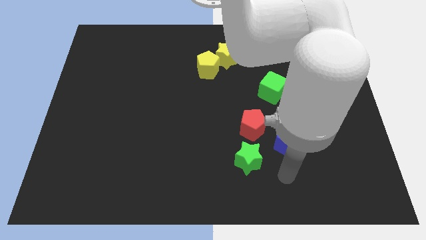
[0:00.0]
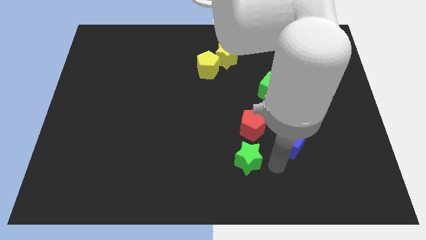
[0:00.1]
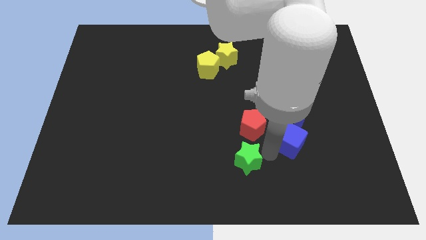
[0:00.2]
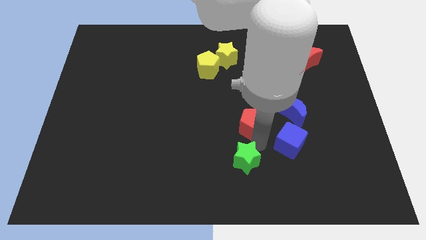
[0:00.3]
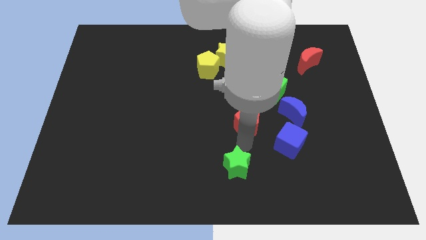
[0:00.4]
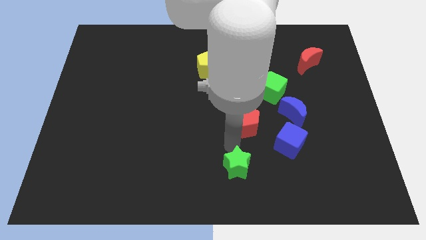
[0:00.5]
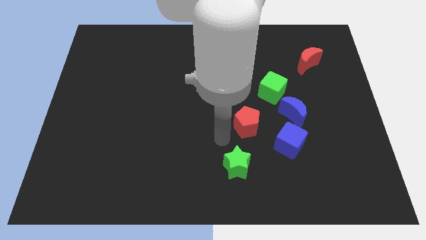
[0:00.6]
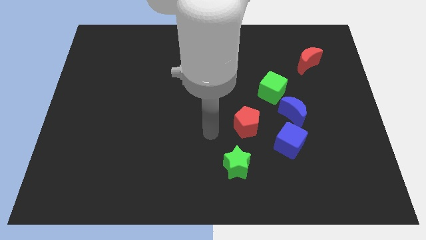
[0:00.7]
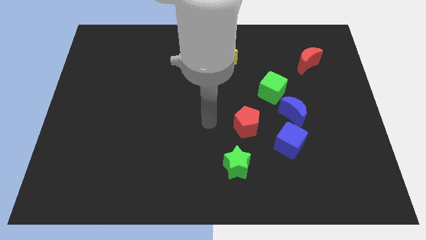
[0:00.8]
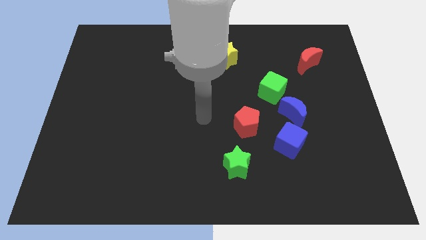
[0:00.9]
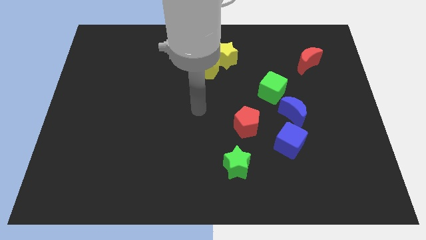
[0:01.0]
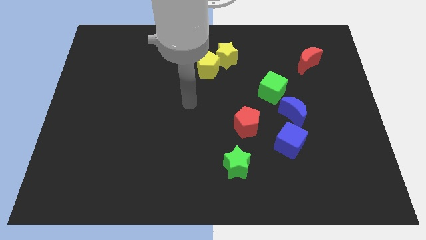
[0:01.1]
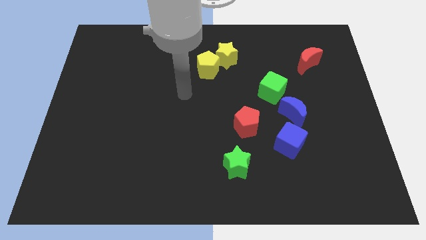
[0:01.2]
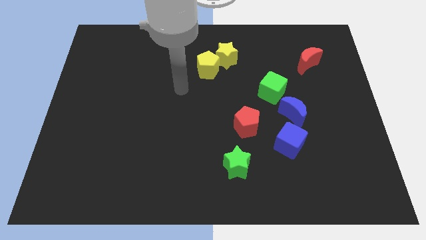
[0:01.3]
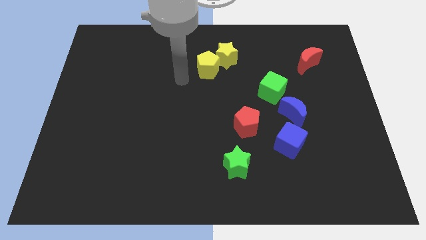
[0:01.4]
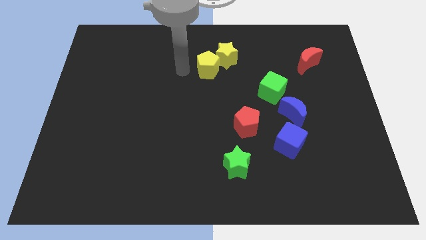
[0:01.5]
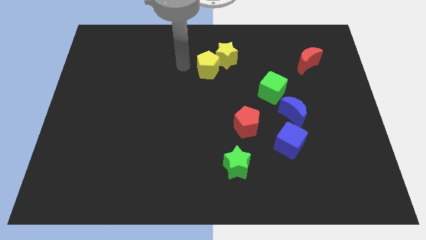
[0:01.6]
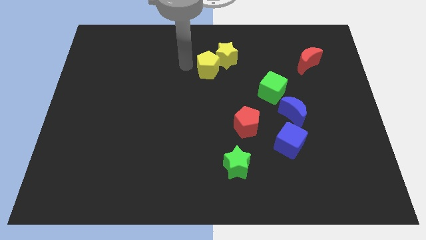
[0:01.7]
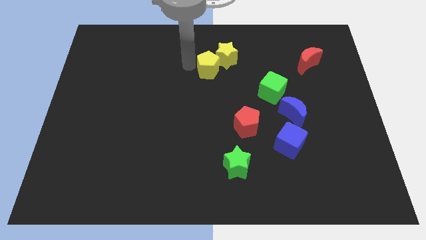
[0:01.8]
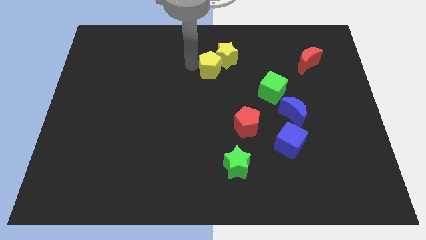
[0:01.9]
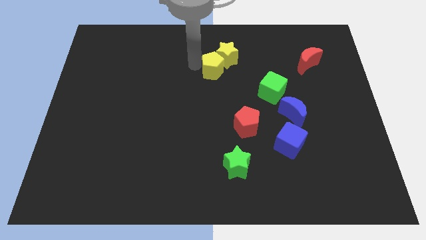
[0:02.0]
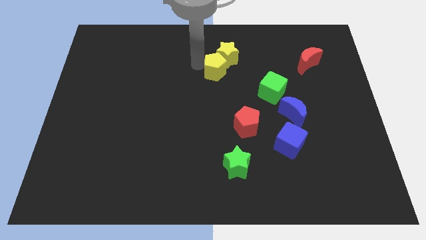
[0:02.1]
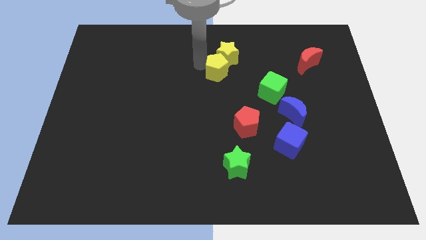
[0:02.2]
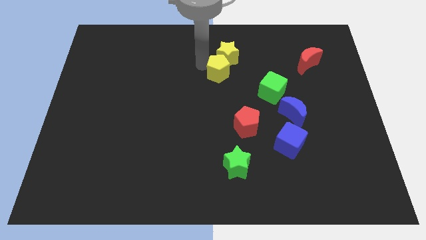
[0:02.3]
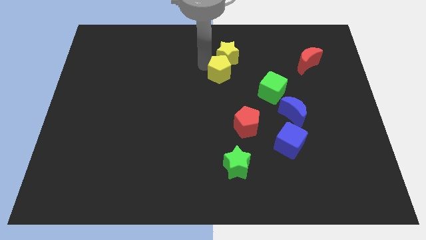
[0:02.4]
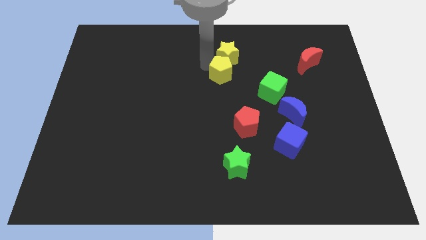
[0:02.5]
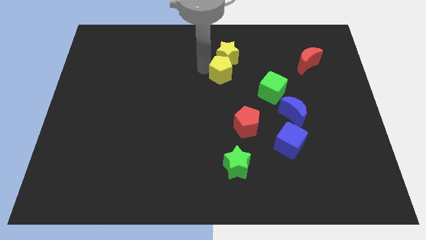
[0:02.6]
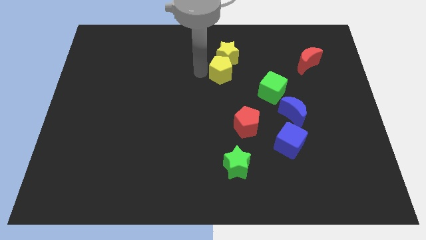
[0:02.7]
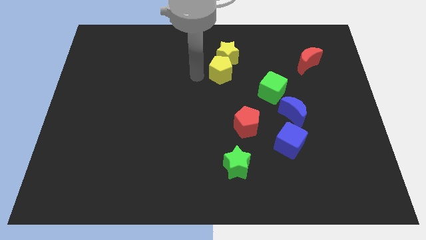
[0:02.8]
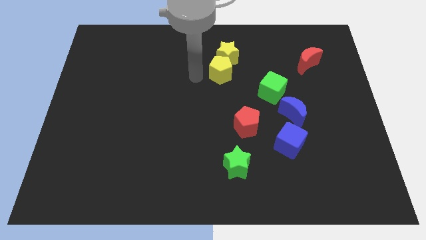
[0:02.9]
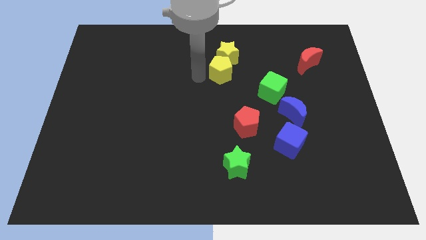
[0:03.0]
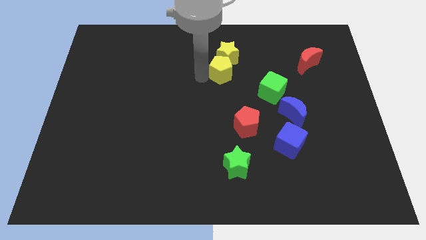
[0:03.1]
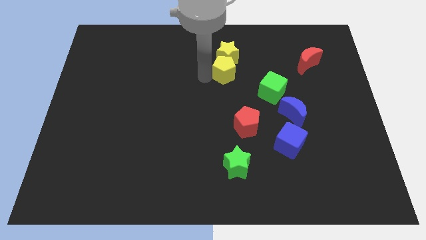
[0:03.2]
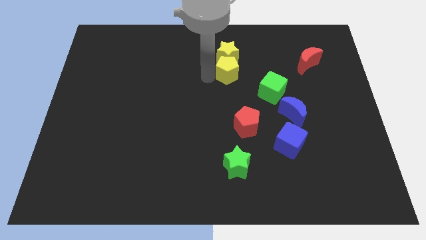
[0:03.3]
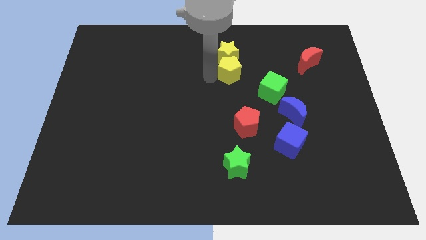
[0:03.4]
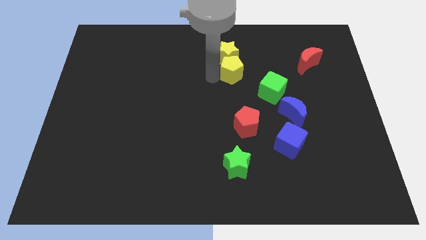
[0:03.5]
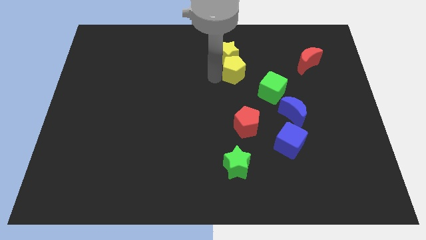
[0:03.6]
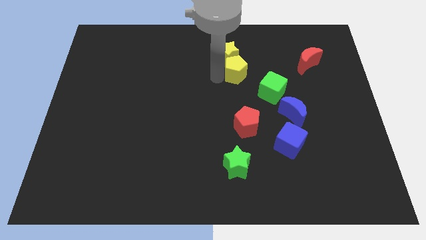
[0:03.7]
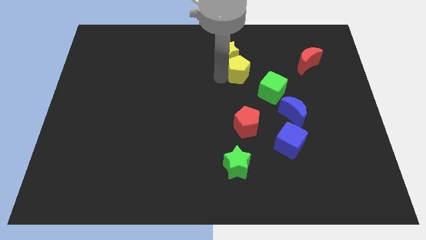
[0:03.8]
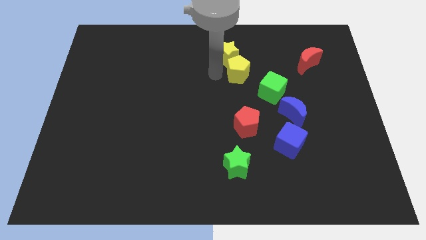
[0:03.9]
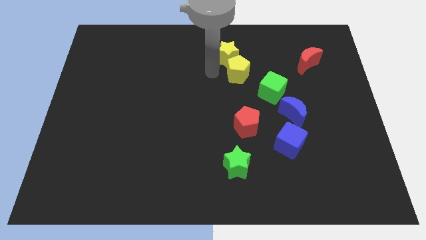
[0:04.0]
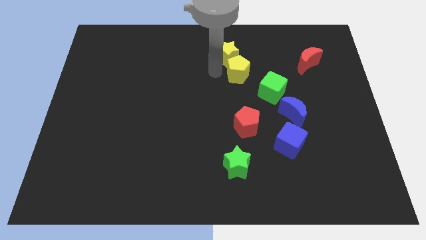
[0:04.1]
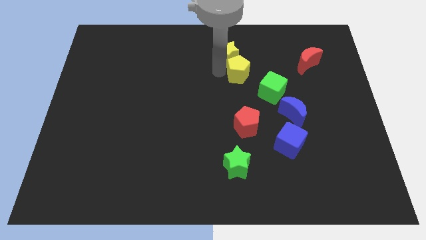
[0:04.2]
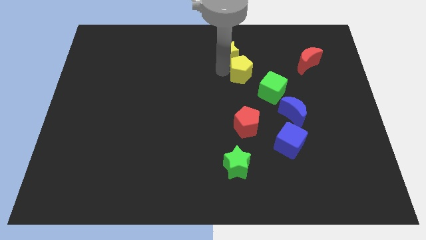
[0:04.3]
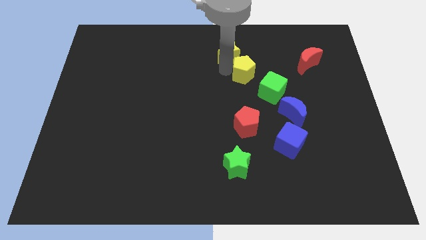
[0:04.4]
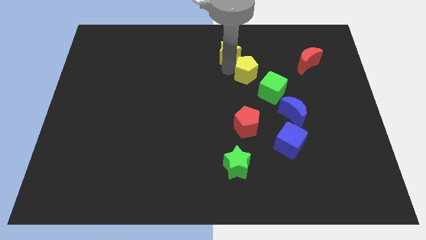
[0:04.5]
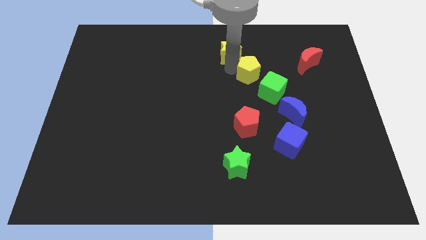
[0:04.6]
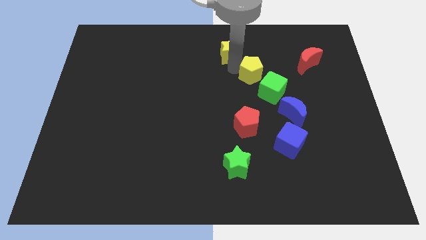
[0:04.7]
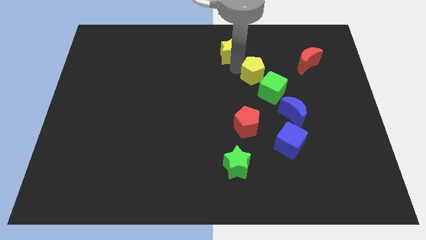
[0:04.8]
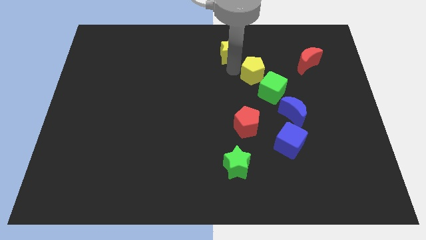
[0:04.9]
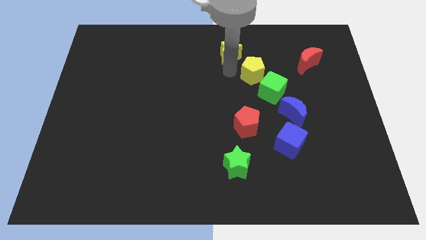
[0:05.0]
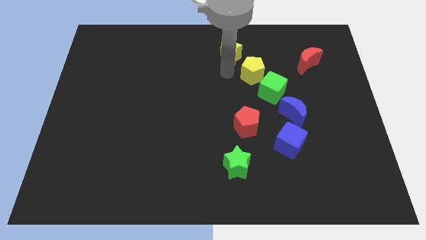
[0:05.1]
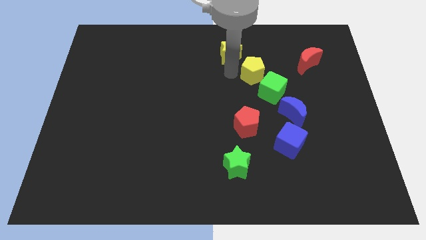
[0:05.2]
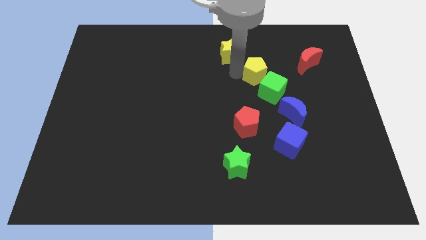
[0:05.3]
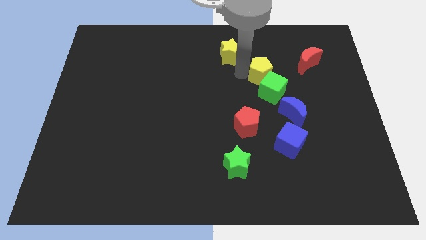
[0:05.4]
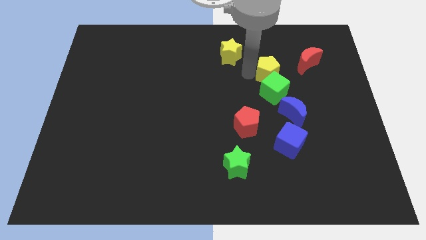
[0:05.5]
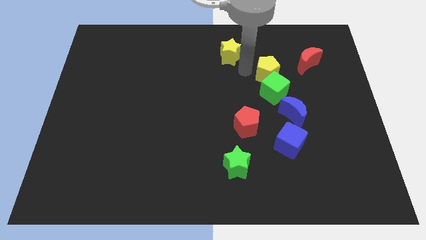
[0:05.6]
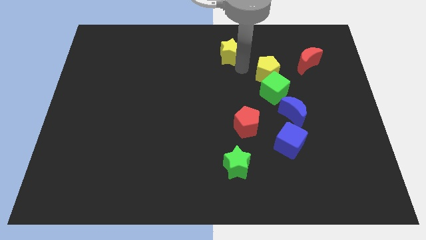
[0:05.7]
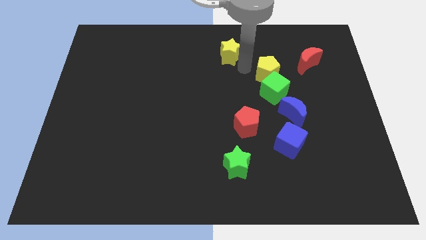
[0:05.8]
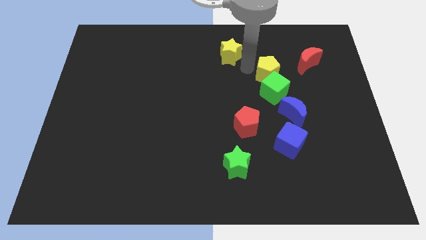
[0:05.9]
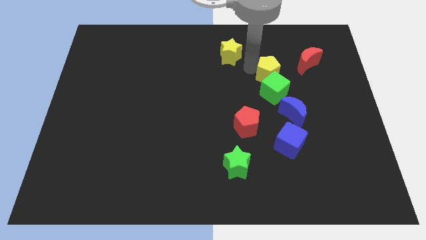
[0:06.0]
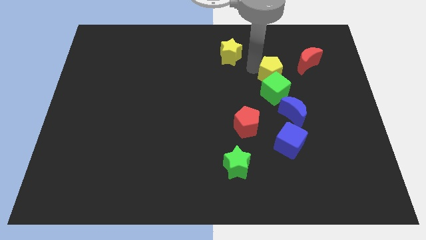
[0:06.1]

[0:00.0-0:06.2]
push the yellow pentagon to the bottom left of the red moon

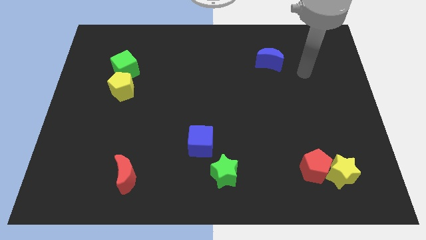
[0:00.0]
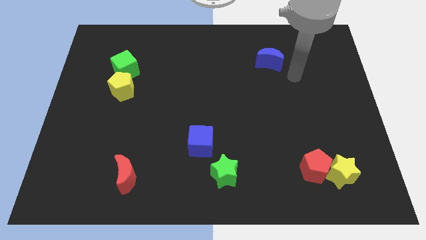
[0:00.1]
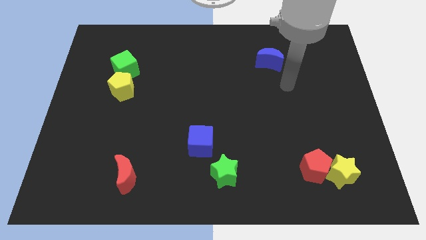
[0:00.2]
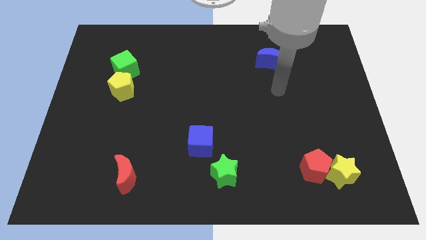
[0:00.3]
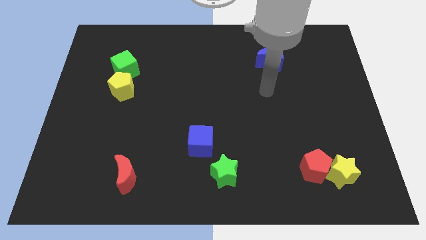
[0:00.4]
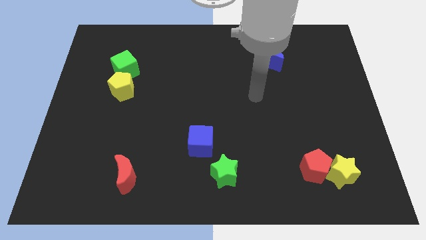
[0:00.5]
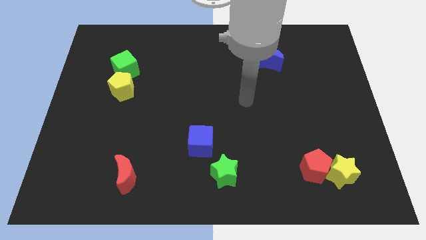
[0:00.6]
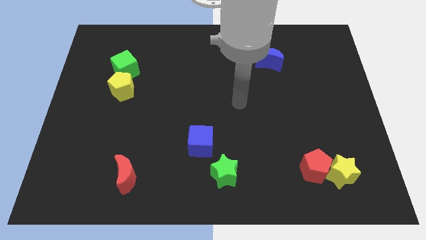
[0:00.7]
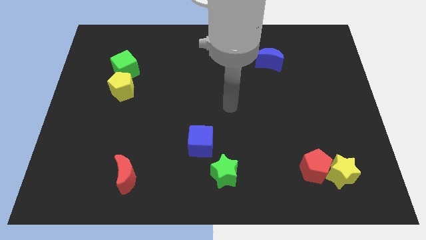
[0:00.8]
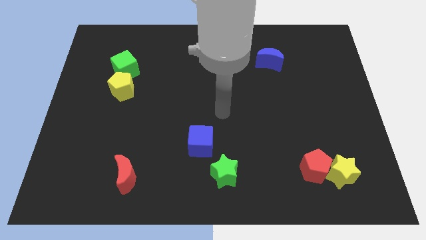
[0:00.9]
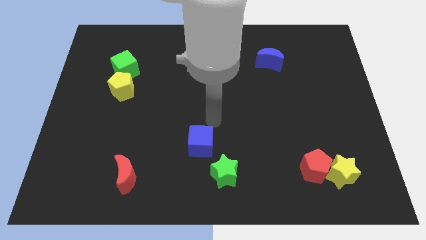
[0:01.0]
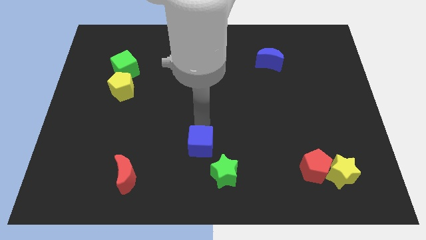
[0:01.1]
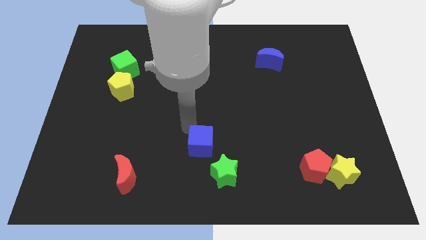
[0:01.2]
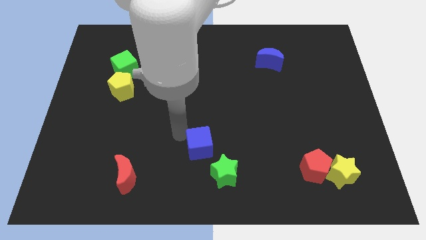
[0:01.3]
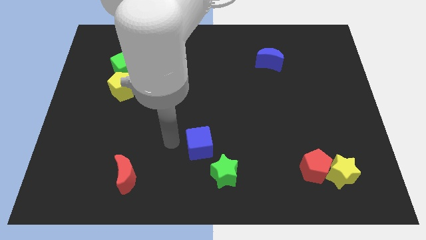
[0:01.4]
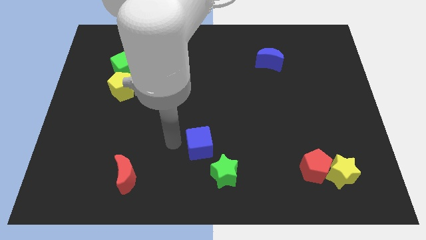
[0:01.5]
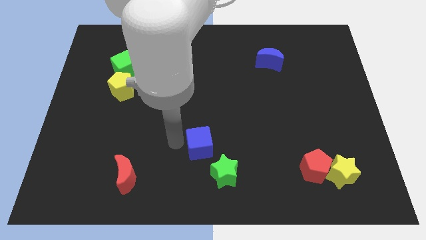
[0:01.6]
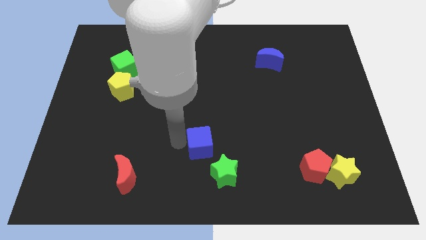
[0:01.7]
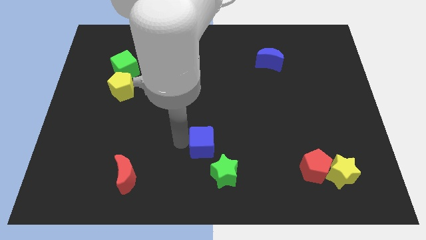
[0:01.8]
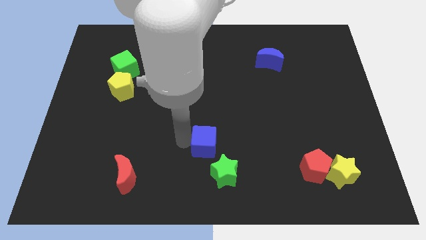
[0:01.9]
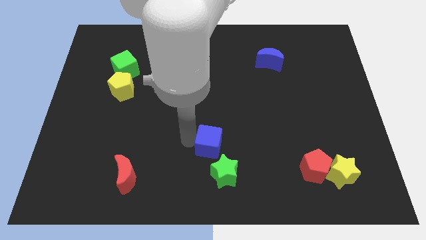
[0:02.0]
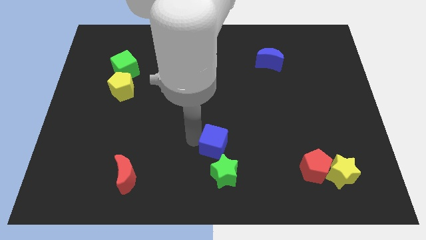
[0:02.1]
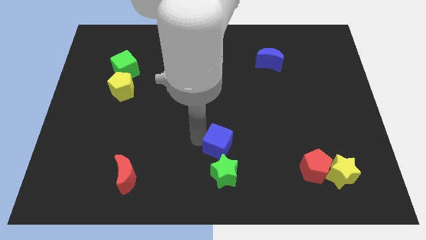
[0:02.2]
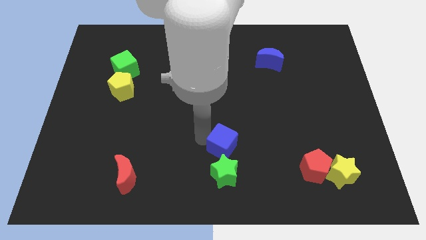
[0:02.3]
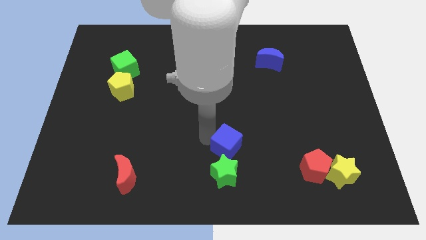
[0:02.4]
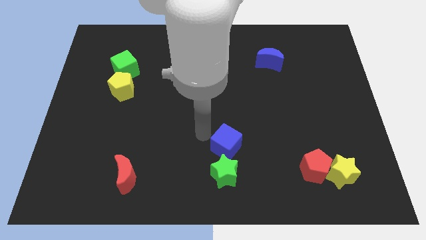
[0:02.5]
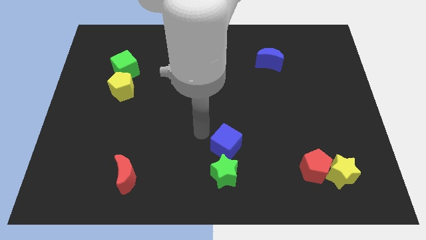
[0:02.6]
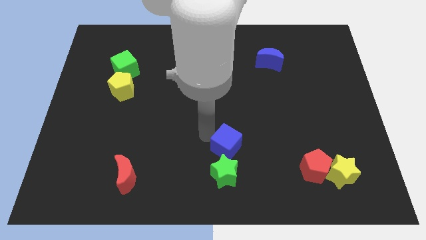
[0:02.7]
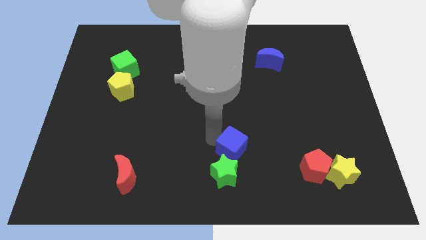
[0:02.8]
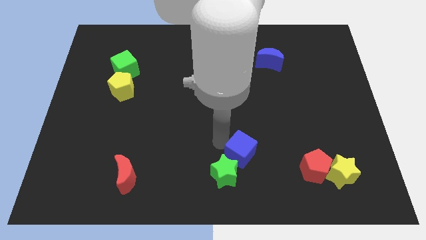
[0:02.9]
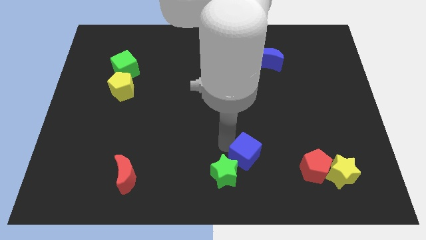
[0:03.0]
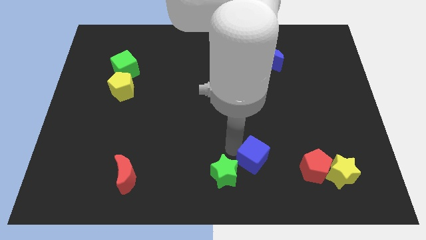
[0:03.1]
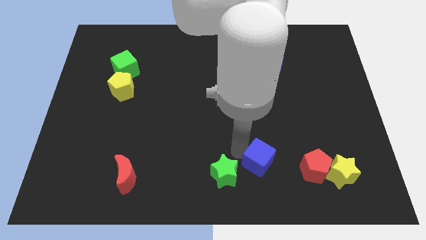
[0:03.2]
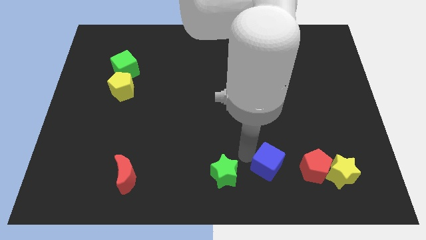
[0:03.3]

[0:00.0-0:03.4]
put the blue cube just left of the yellow star
